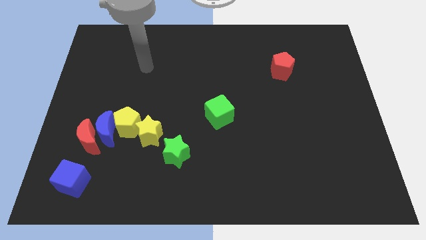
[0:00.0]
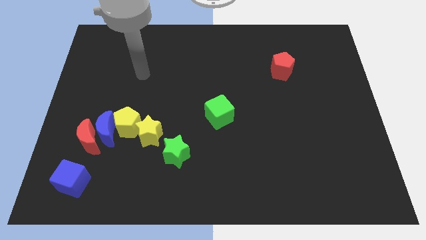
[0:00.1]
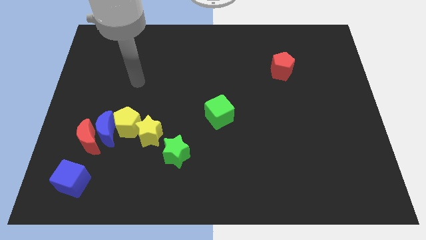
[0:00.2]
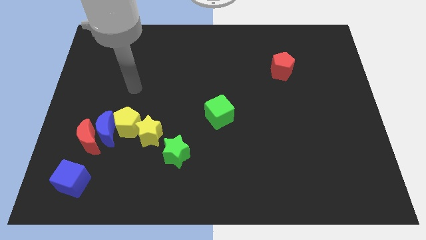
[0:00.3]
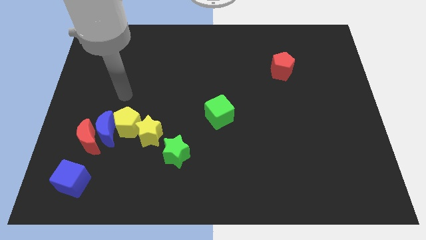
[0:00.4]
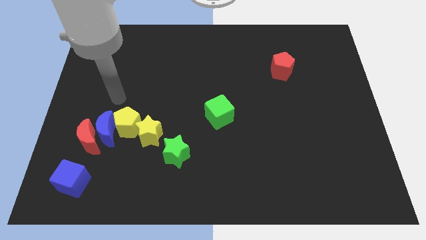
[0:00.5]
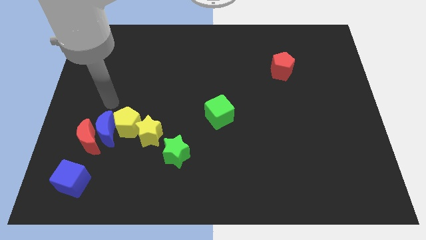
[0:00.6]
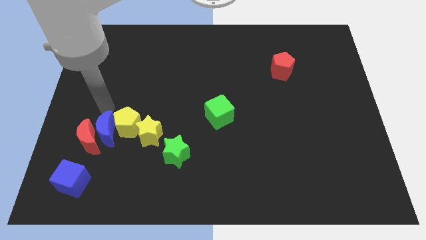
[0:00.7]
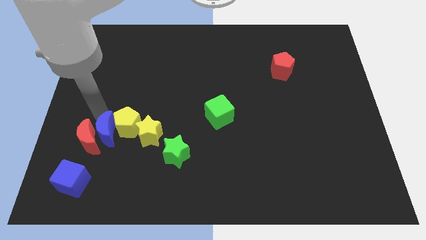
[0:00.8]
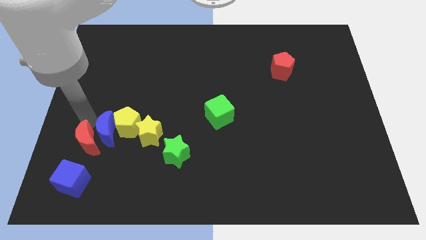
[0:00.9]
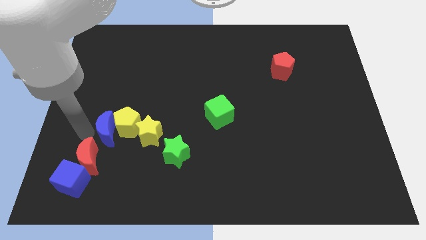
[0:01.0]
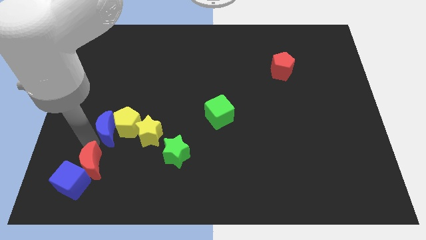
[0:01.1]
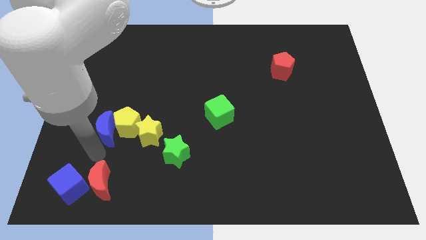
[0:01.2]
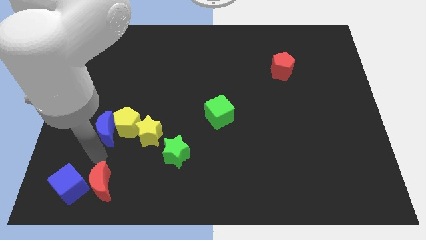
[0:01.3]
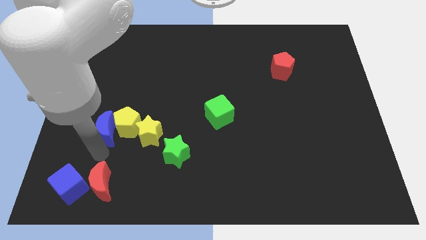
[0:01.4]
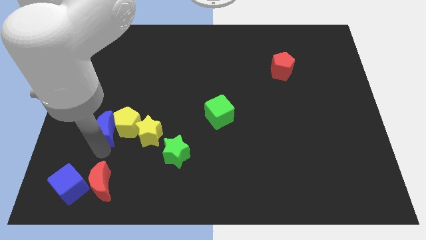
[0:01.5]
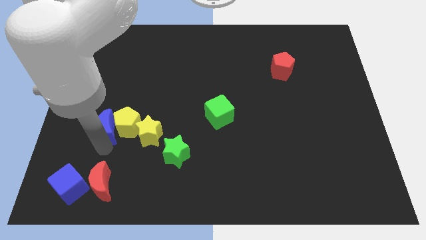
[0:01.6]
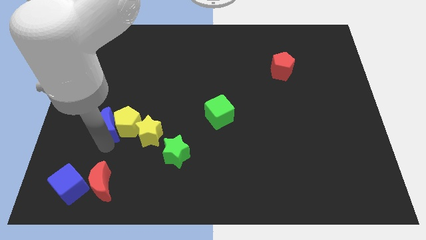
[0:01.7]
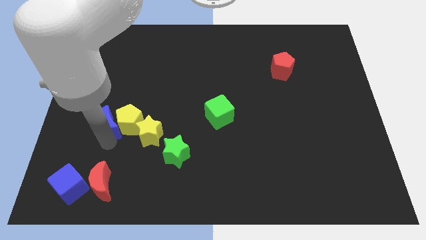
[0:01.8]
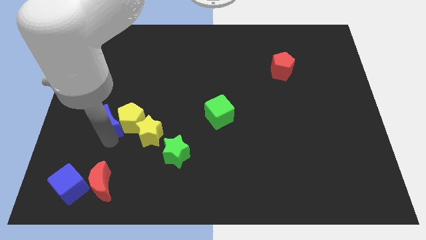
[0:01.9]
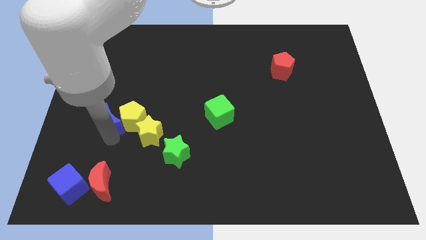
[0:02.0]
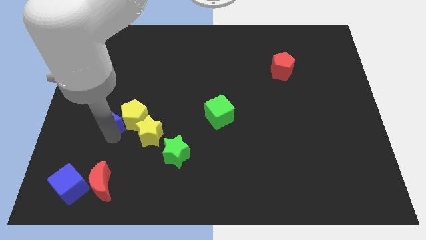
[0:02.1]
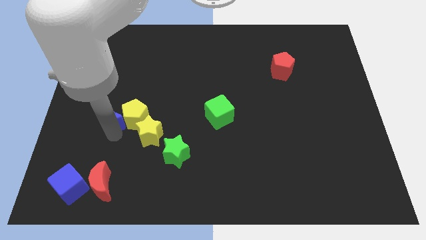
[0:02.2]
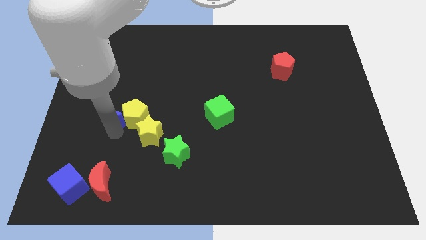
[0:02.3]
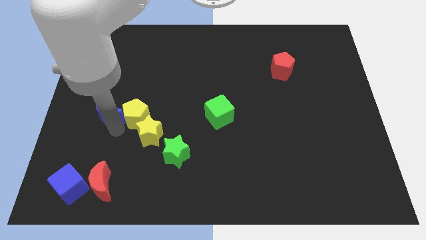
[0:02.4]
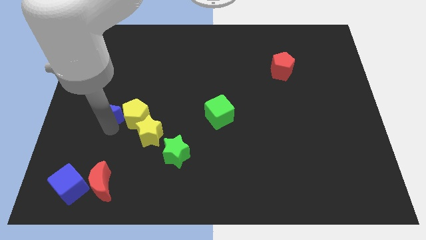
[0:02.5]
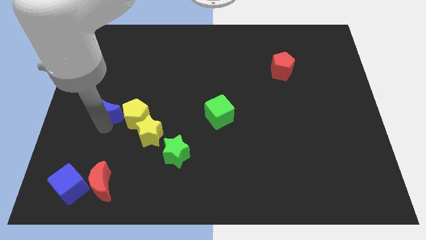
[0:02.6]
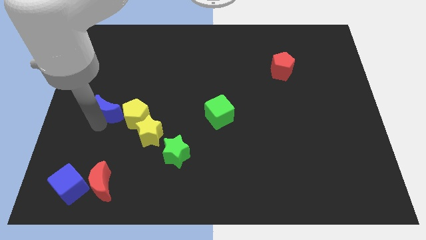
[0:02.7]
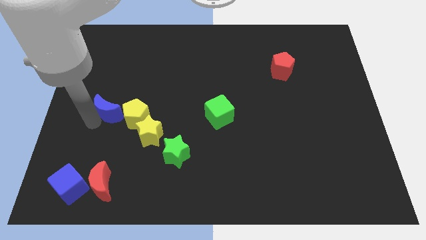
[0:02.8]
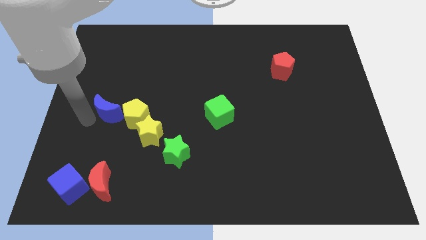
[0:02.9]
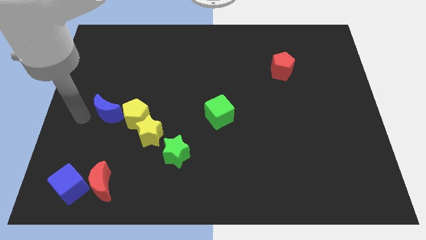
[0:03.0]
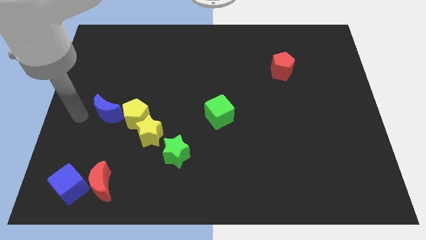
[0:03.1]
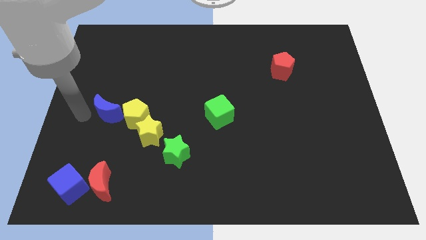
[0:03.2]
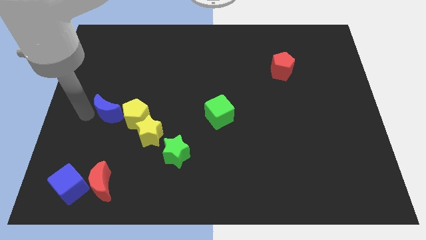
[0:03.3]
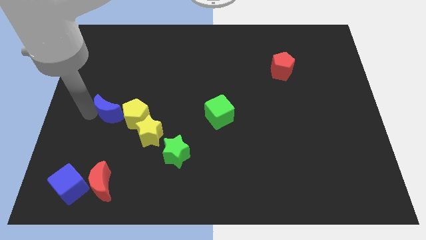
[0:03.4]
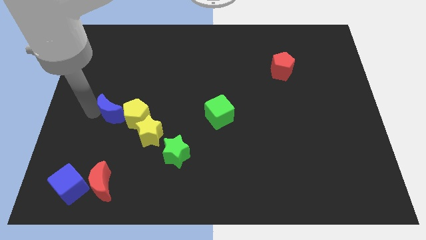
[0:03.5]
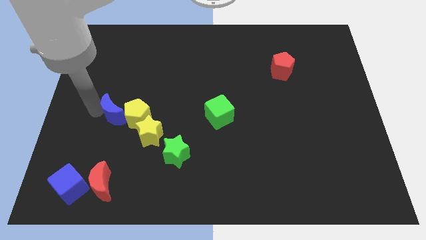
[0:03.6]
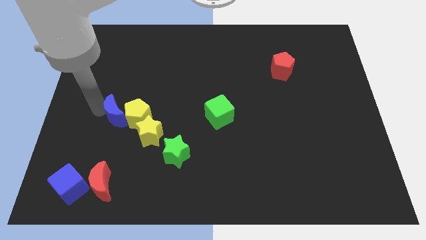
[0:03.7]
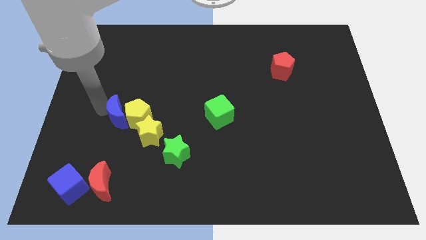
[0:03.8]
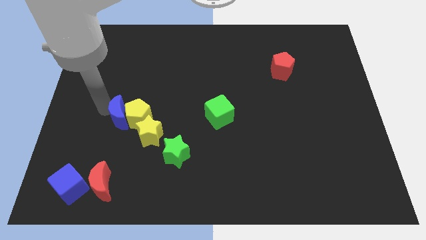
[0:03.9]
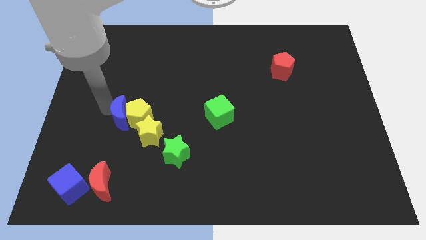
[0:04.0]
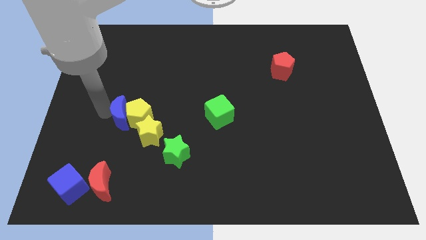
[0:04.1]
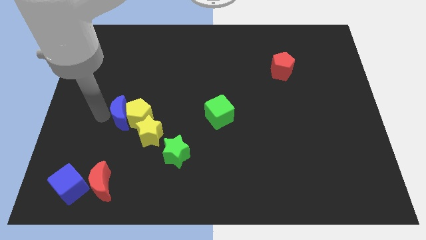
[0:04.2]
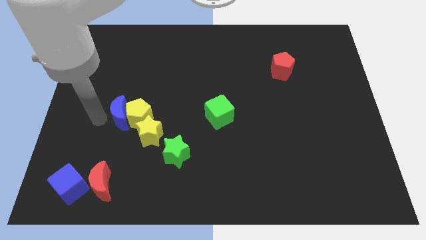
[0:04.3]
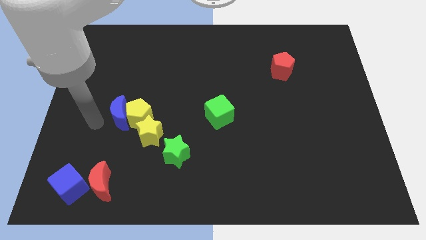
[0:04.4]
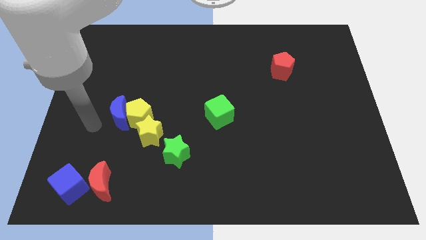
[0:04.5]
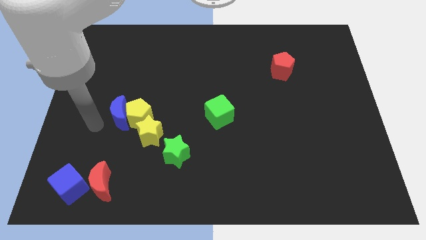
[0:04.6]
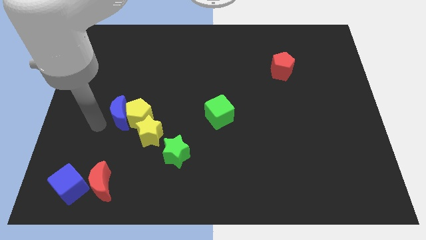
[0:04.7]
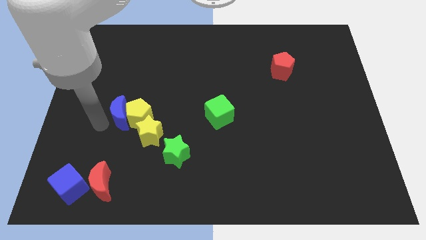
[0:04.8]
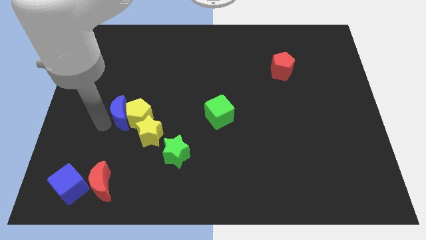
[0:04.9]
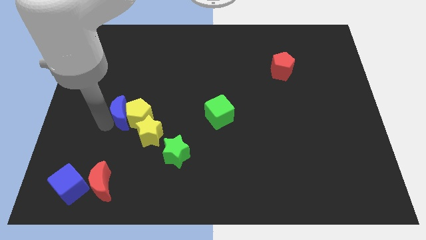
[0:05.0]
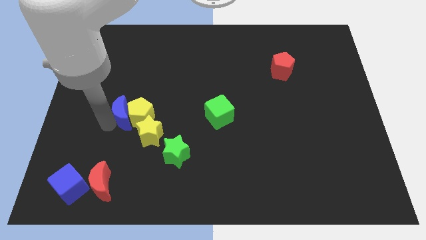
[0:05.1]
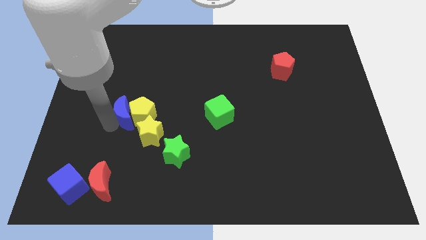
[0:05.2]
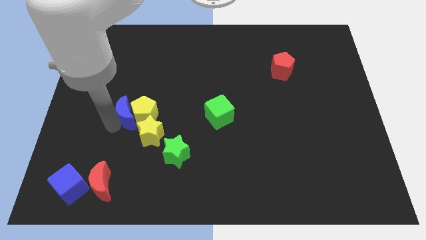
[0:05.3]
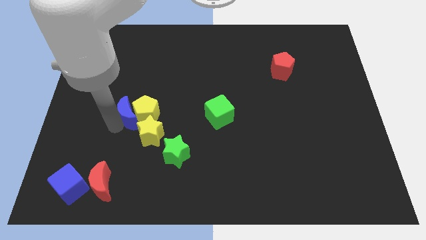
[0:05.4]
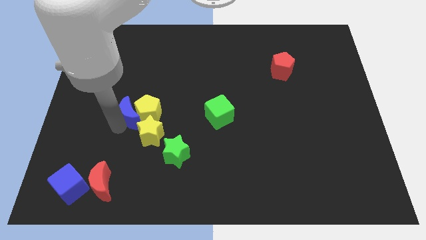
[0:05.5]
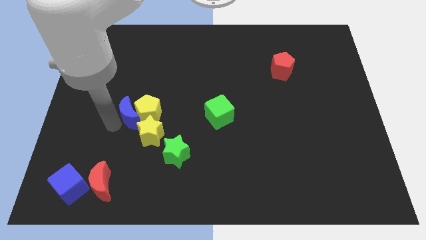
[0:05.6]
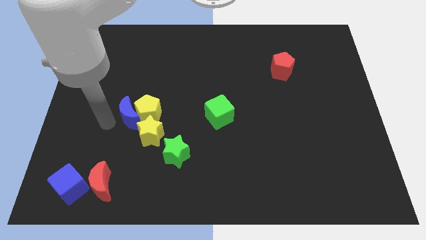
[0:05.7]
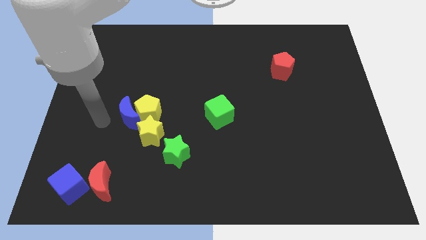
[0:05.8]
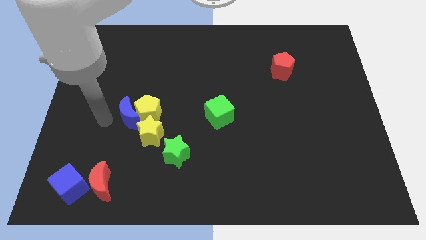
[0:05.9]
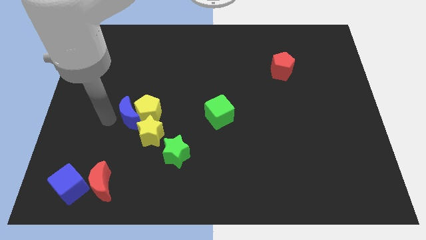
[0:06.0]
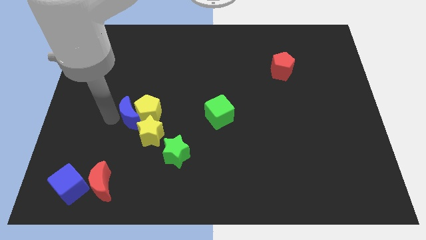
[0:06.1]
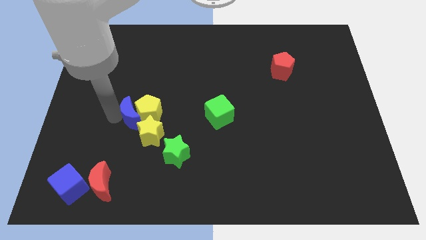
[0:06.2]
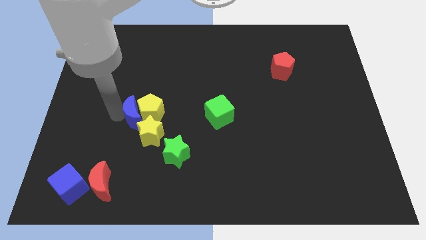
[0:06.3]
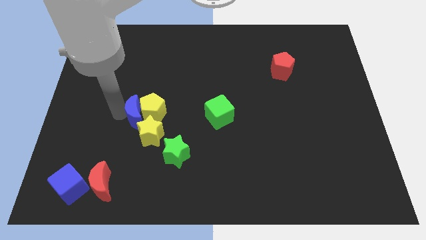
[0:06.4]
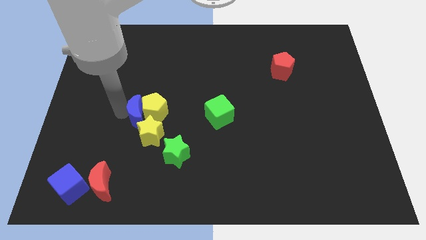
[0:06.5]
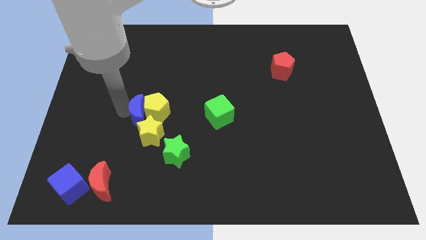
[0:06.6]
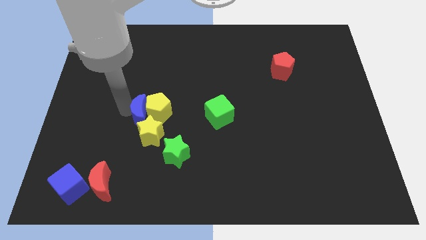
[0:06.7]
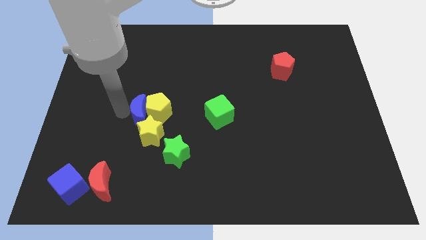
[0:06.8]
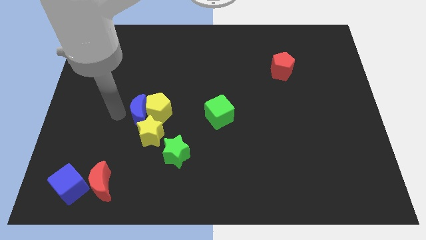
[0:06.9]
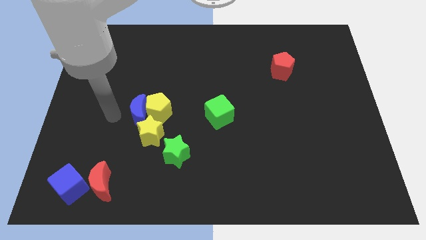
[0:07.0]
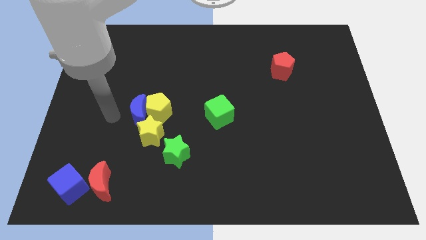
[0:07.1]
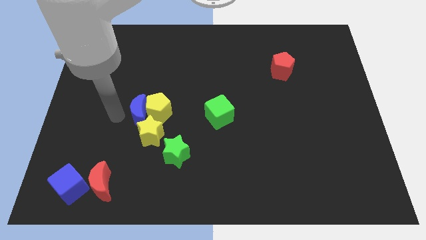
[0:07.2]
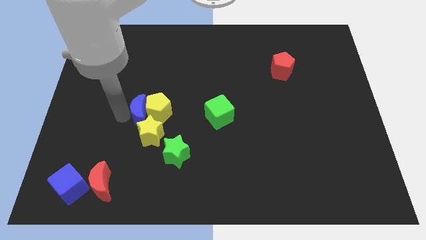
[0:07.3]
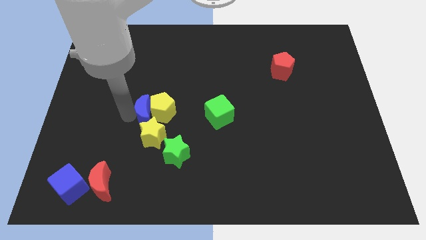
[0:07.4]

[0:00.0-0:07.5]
move the blue moon right a bit

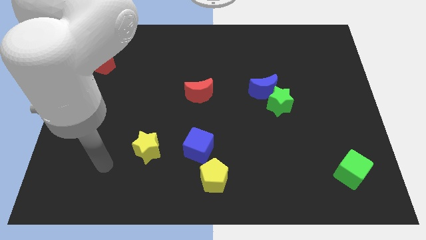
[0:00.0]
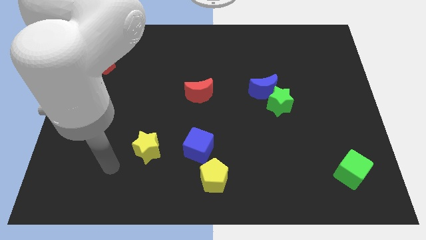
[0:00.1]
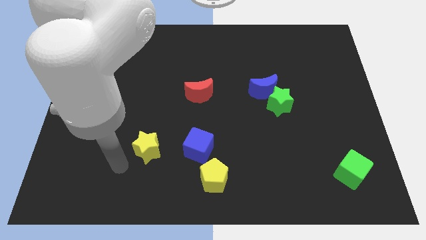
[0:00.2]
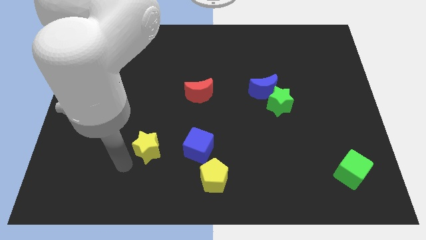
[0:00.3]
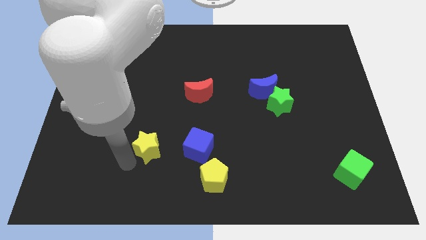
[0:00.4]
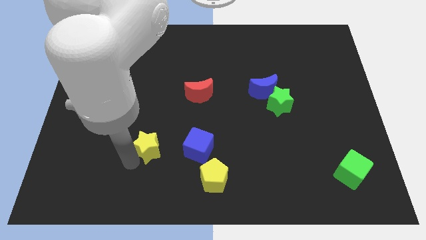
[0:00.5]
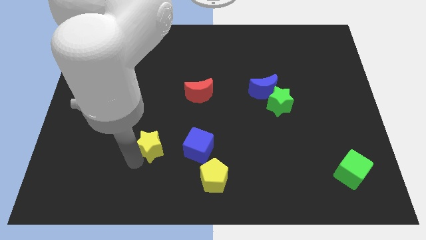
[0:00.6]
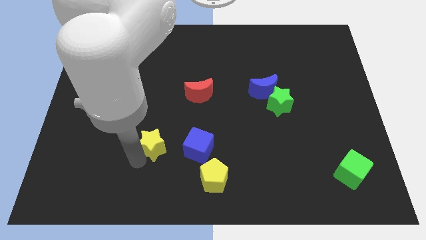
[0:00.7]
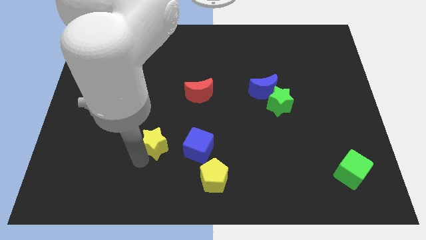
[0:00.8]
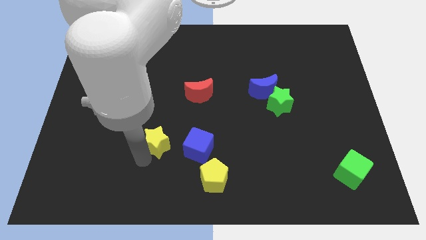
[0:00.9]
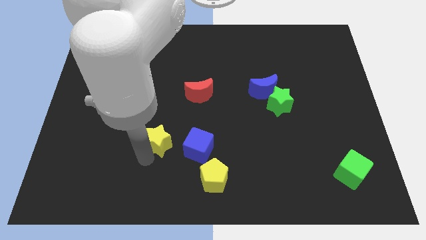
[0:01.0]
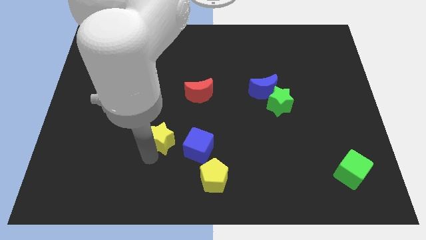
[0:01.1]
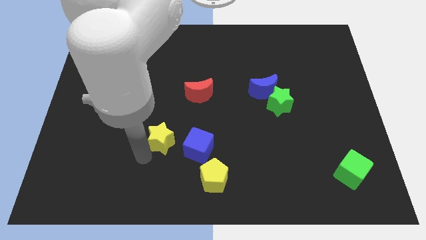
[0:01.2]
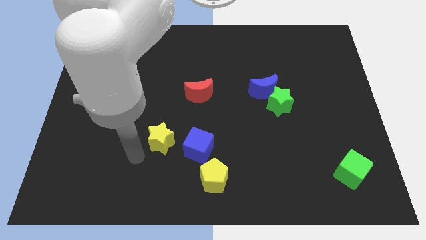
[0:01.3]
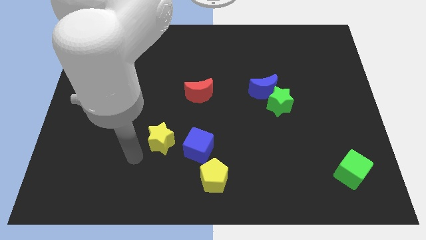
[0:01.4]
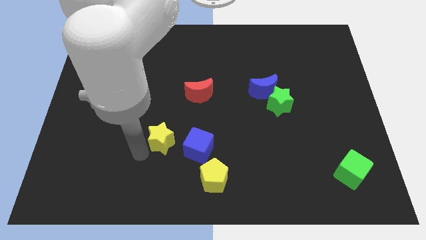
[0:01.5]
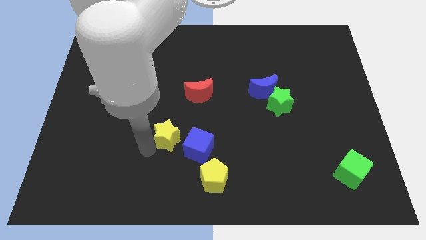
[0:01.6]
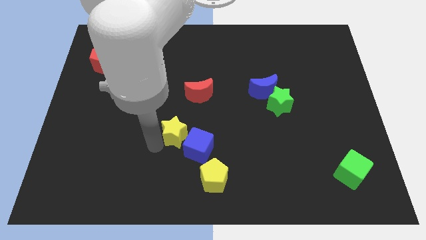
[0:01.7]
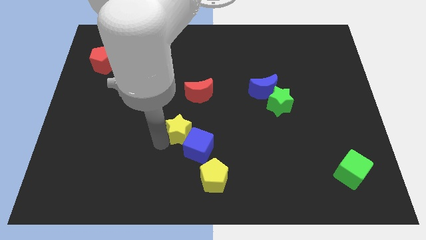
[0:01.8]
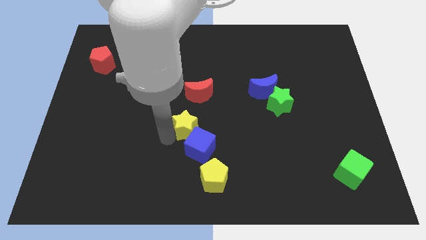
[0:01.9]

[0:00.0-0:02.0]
slightly move the yellow star right
